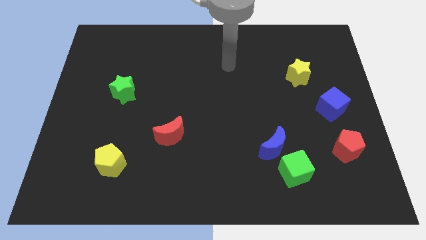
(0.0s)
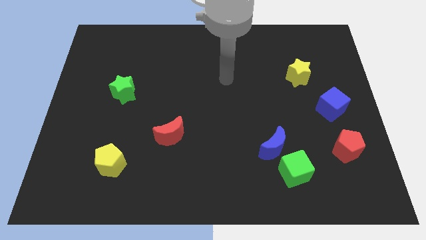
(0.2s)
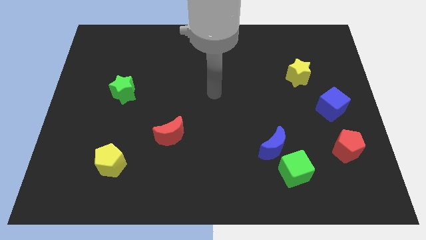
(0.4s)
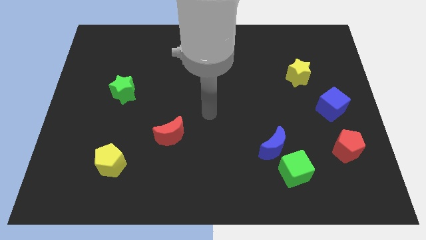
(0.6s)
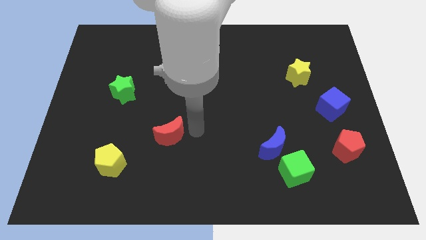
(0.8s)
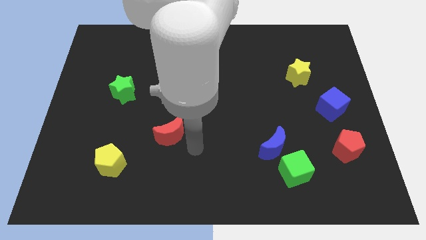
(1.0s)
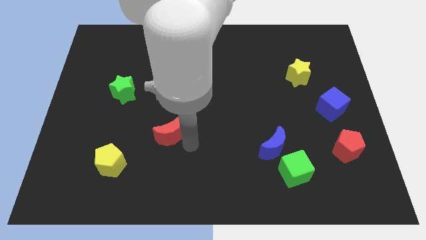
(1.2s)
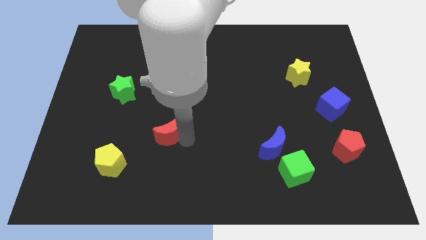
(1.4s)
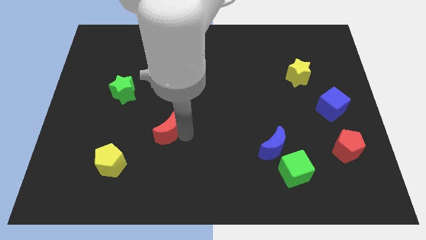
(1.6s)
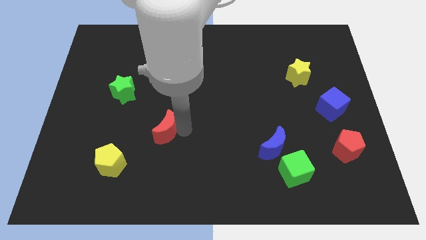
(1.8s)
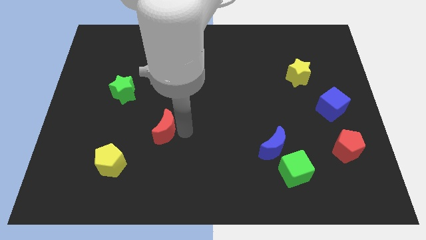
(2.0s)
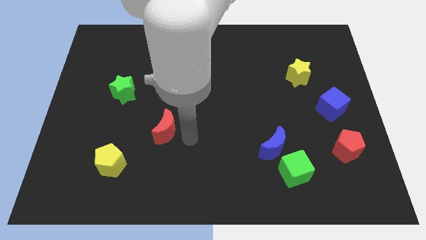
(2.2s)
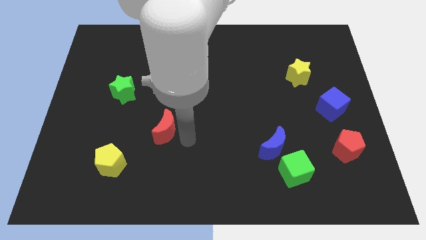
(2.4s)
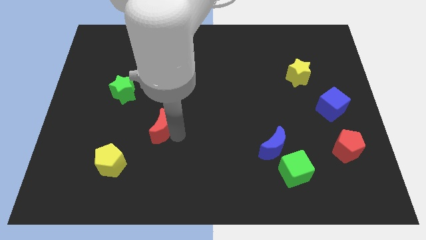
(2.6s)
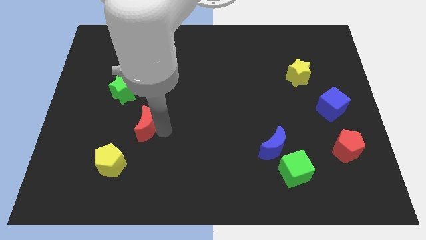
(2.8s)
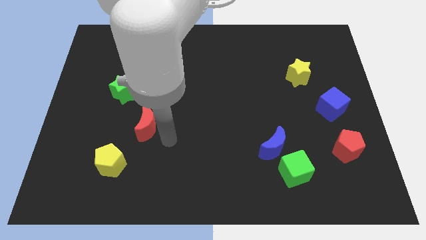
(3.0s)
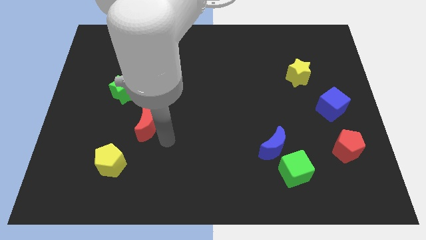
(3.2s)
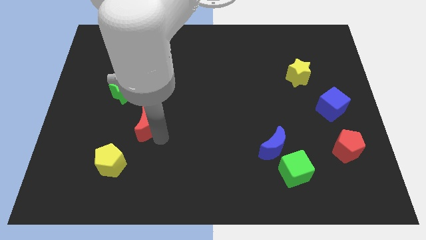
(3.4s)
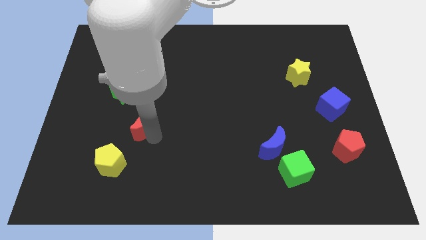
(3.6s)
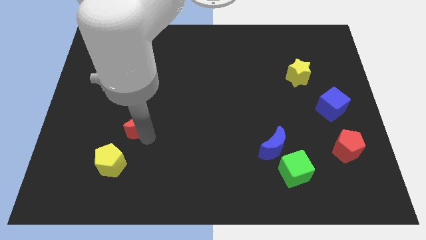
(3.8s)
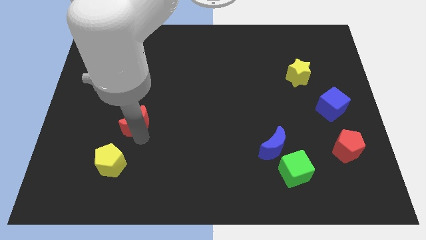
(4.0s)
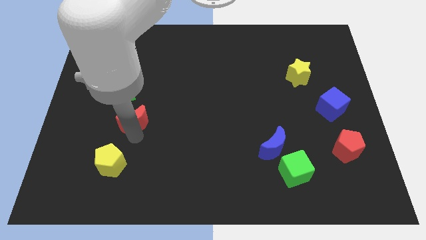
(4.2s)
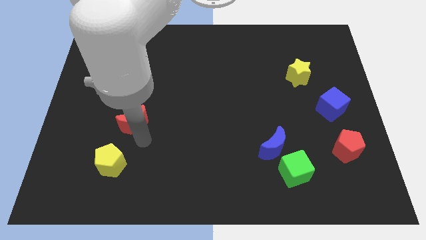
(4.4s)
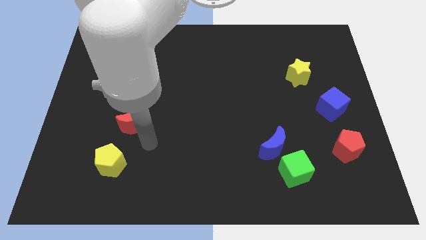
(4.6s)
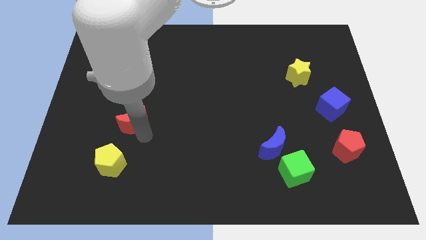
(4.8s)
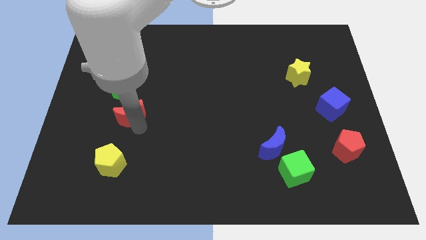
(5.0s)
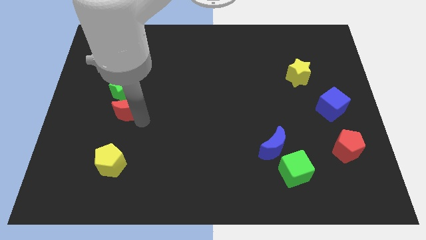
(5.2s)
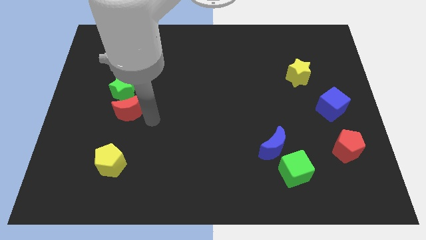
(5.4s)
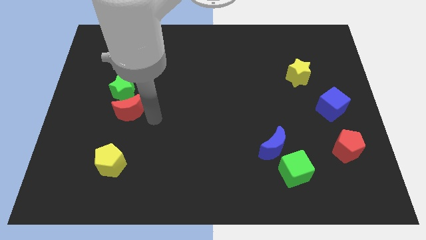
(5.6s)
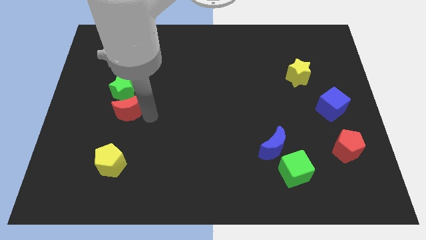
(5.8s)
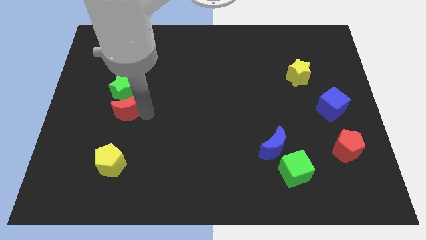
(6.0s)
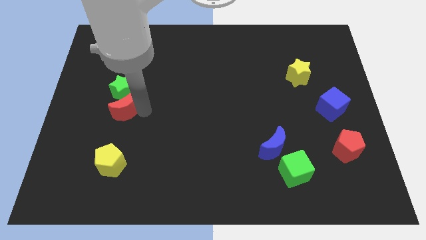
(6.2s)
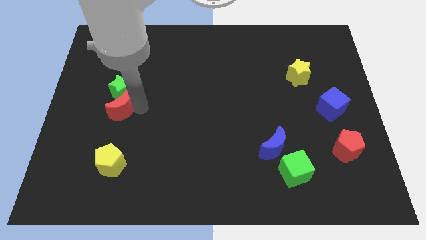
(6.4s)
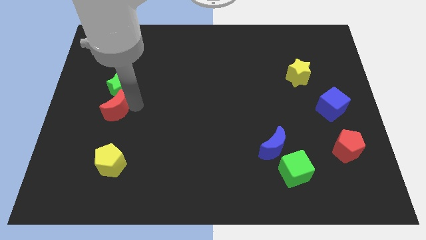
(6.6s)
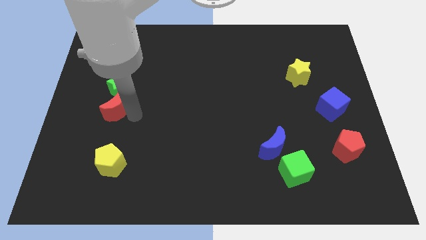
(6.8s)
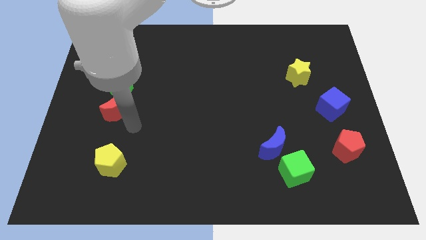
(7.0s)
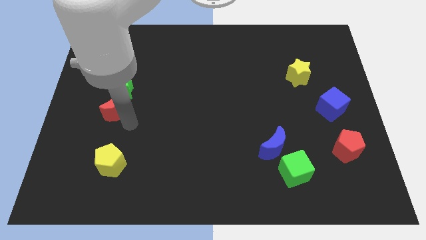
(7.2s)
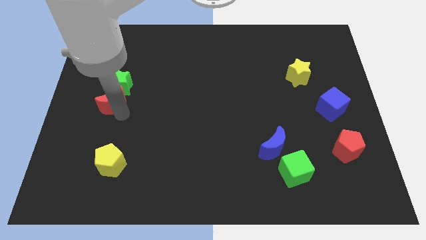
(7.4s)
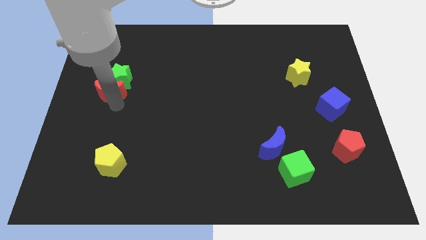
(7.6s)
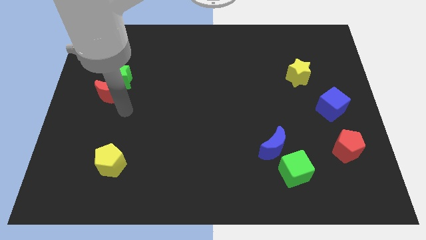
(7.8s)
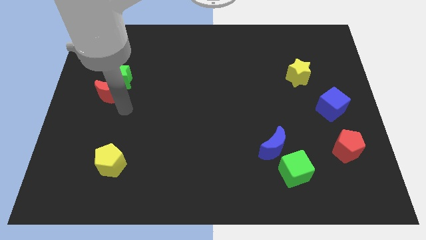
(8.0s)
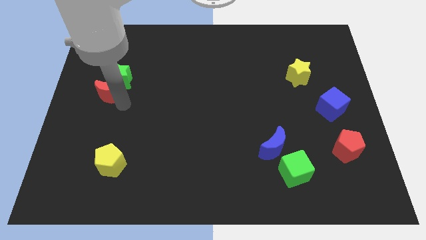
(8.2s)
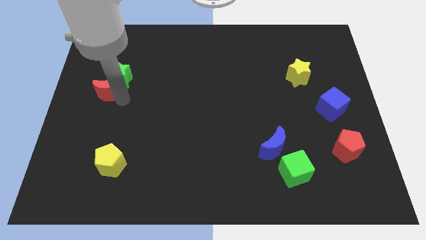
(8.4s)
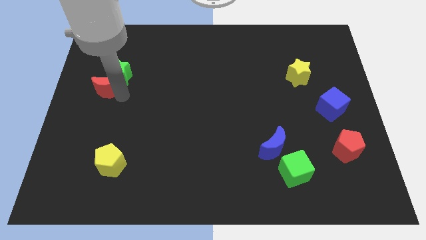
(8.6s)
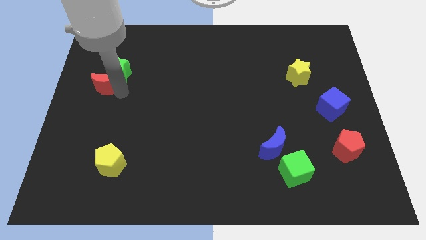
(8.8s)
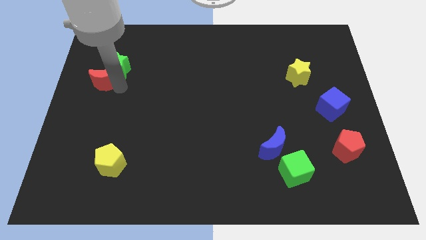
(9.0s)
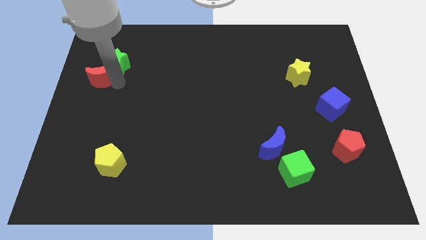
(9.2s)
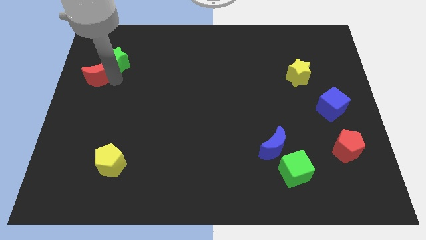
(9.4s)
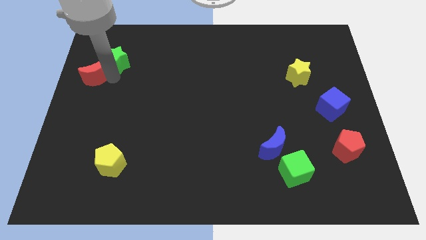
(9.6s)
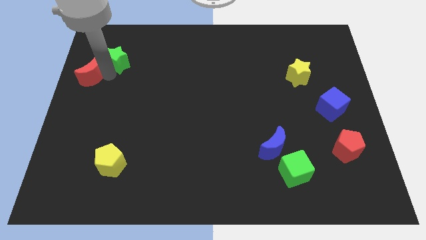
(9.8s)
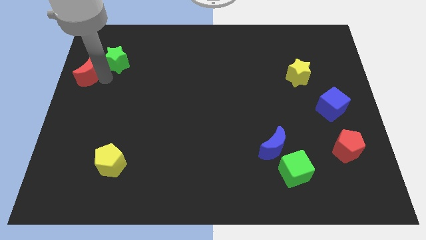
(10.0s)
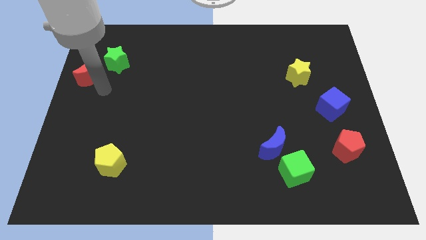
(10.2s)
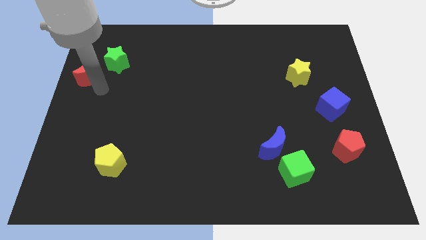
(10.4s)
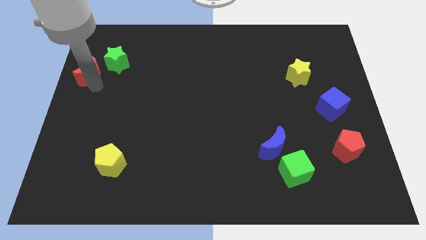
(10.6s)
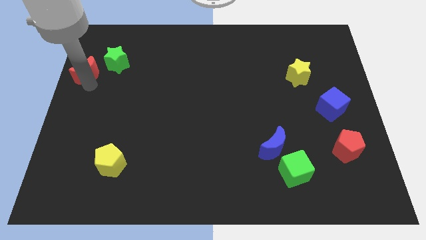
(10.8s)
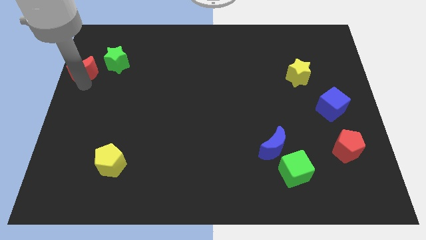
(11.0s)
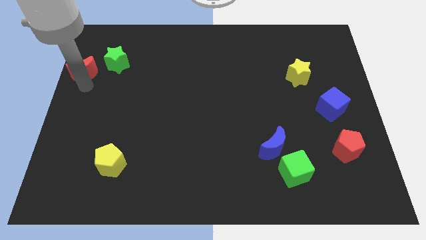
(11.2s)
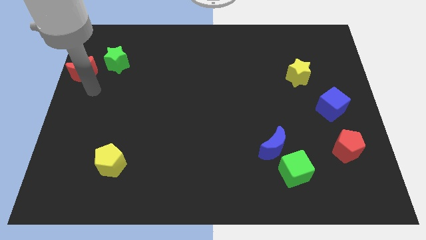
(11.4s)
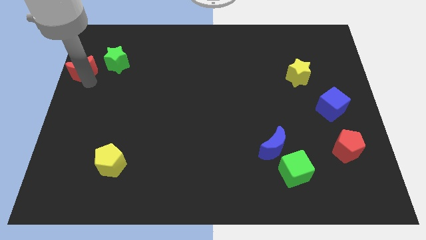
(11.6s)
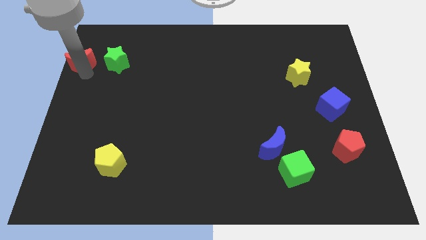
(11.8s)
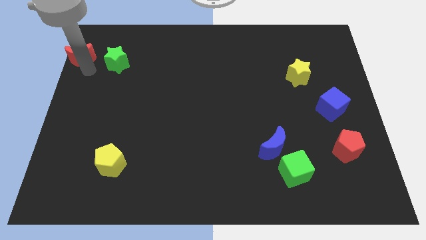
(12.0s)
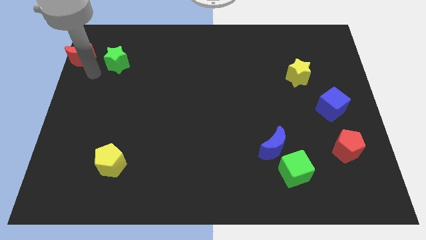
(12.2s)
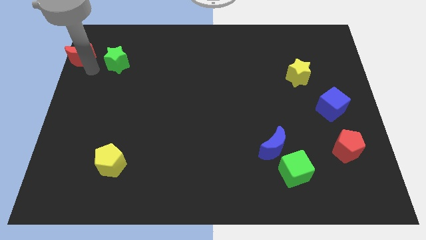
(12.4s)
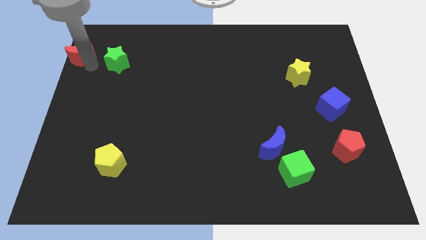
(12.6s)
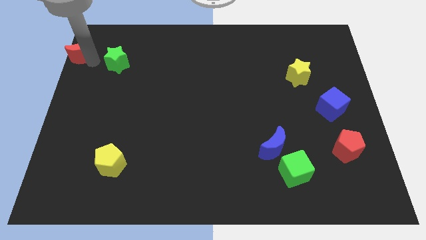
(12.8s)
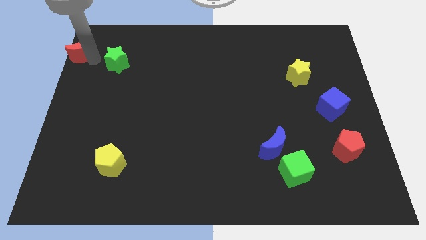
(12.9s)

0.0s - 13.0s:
put the red moon to the top left corner

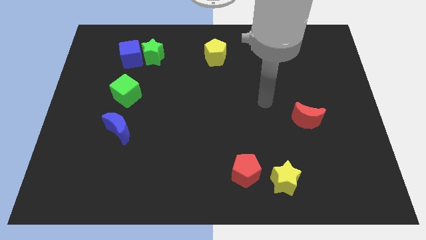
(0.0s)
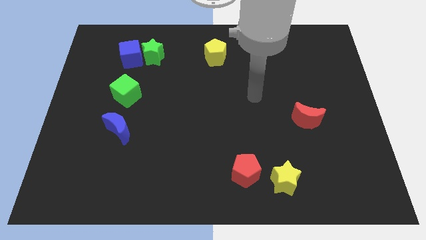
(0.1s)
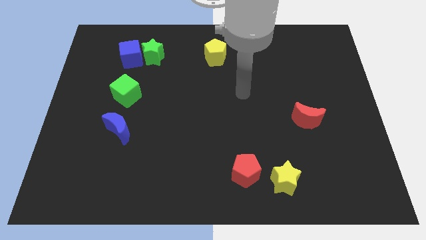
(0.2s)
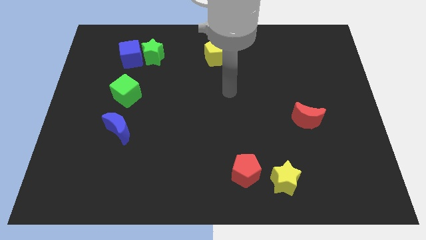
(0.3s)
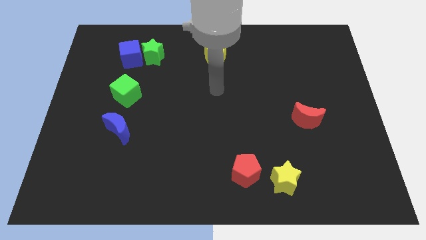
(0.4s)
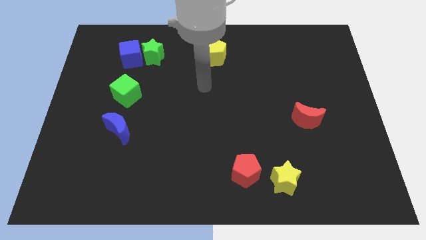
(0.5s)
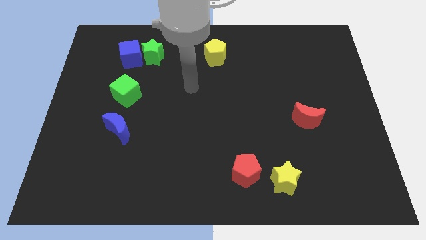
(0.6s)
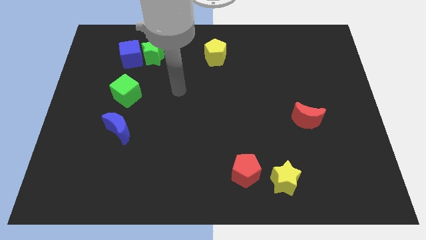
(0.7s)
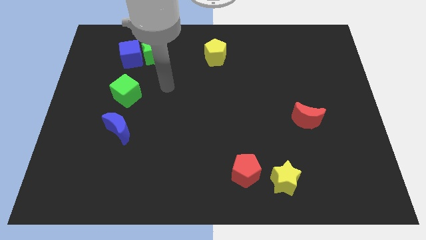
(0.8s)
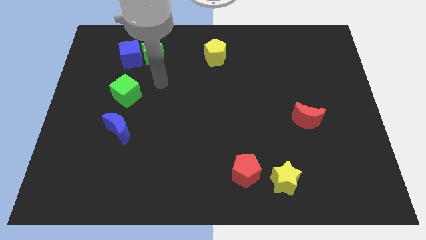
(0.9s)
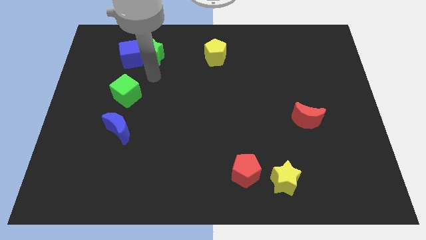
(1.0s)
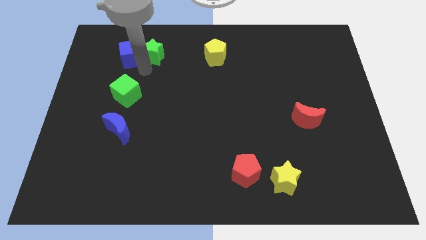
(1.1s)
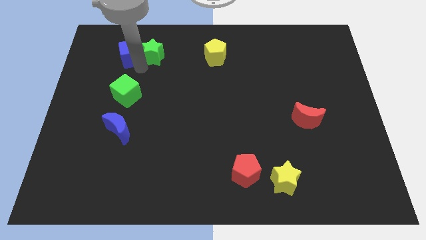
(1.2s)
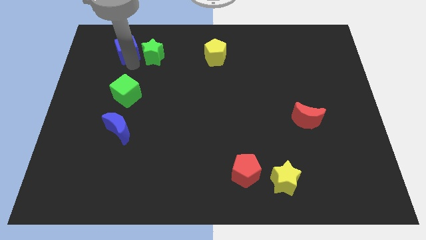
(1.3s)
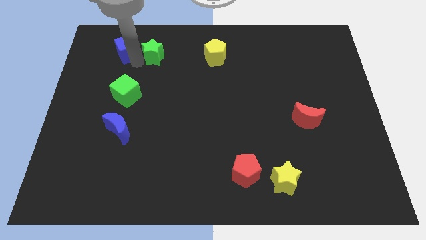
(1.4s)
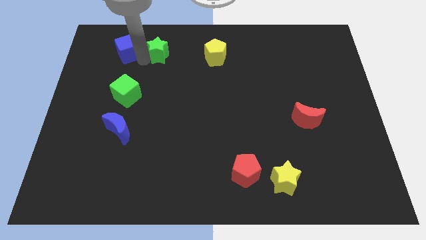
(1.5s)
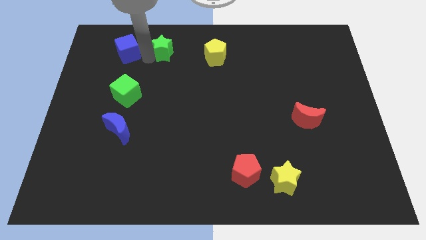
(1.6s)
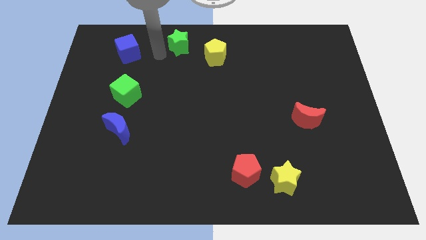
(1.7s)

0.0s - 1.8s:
put the green star to the top
